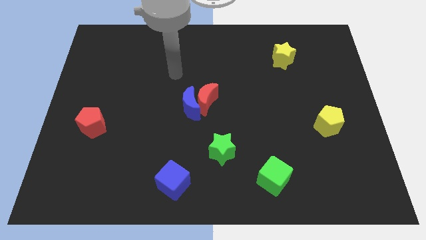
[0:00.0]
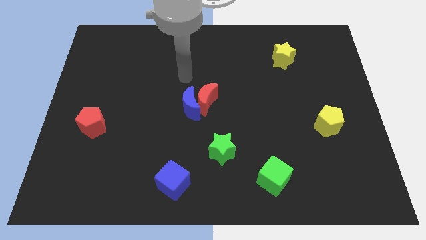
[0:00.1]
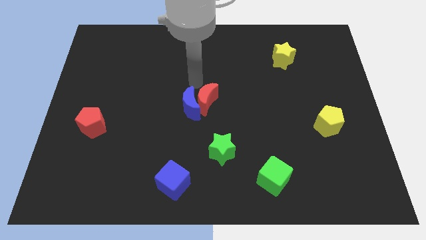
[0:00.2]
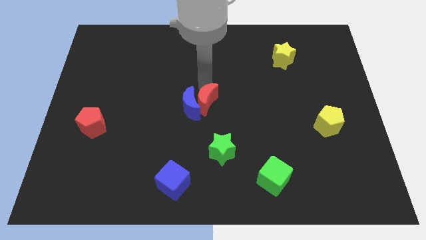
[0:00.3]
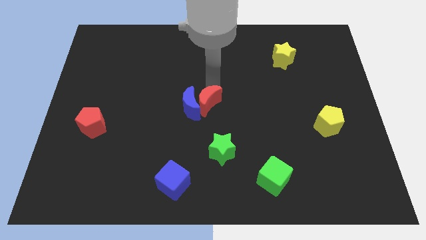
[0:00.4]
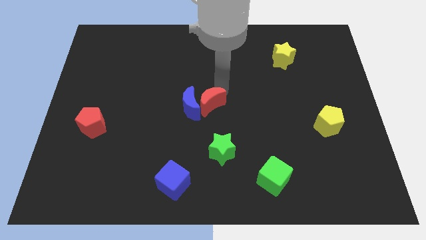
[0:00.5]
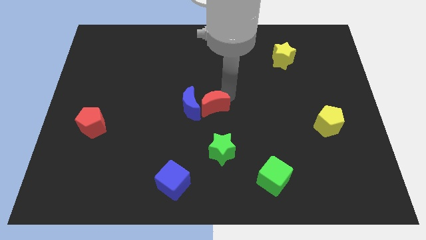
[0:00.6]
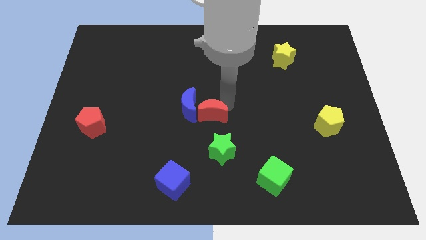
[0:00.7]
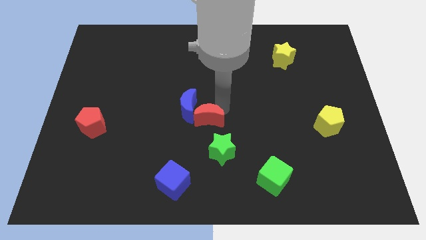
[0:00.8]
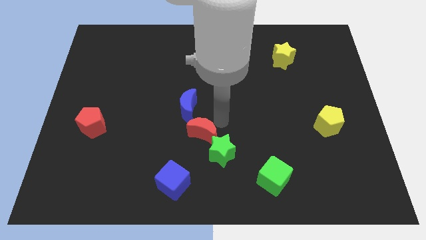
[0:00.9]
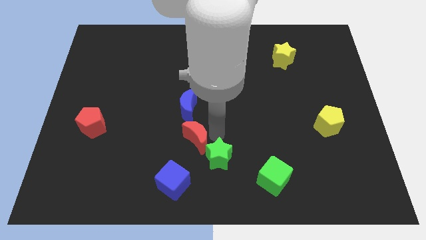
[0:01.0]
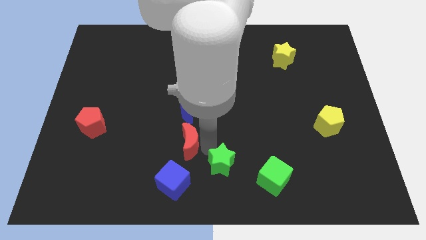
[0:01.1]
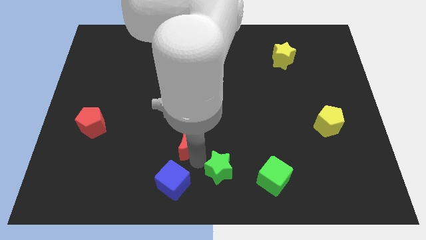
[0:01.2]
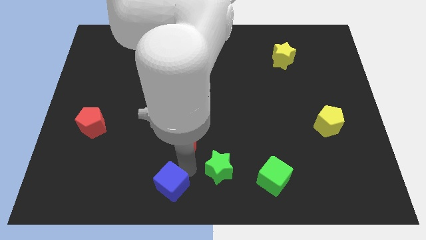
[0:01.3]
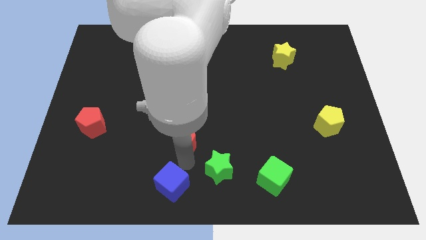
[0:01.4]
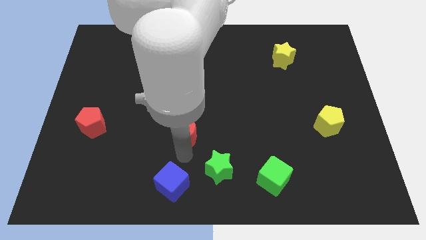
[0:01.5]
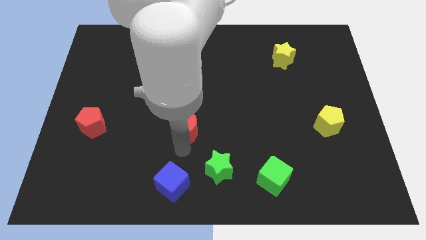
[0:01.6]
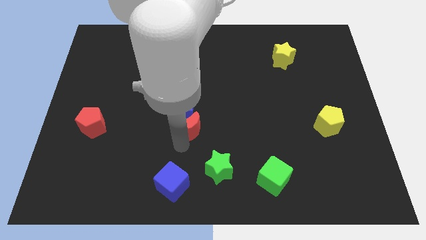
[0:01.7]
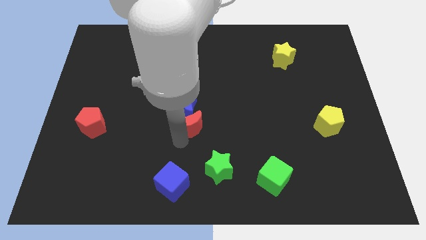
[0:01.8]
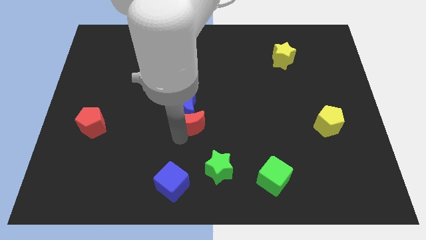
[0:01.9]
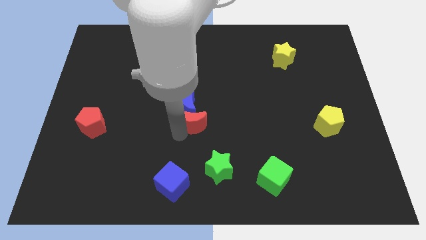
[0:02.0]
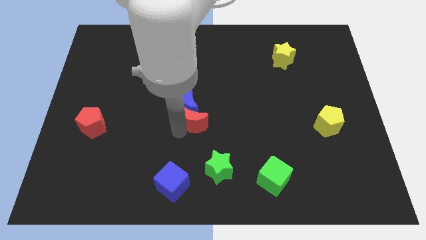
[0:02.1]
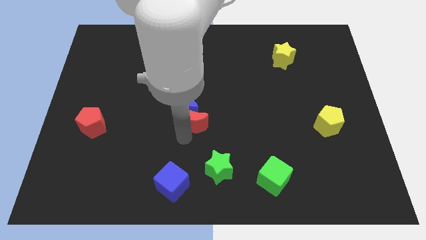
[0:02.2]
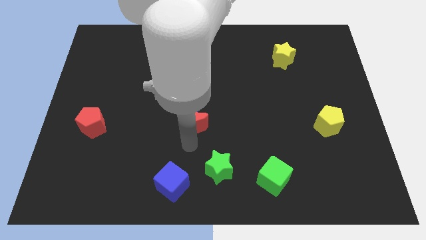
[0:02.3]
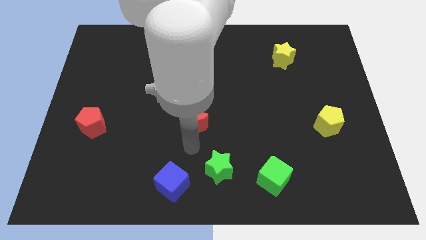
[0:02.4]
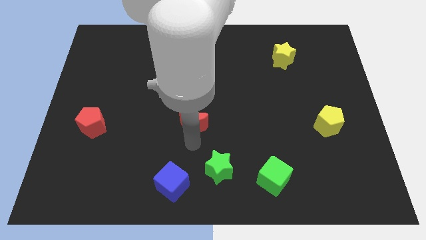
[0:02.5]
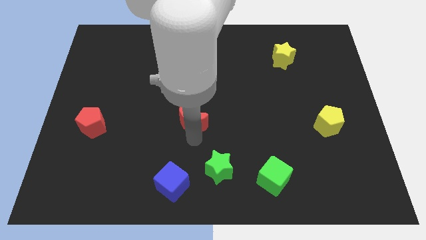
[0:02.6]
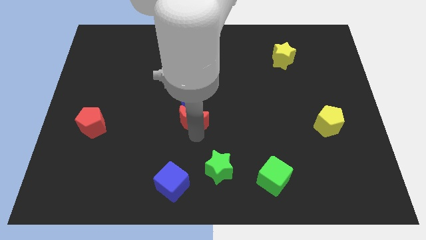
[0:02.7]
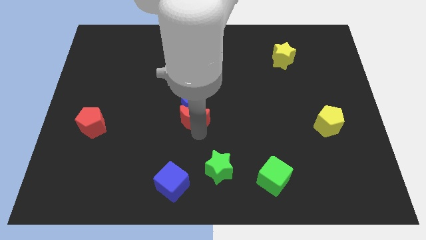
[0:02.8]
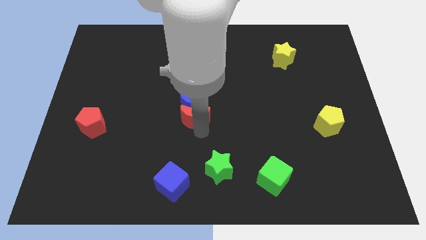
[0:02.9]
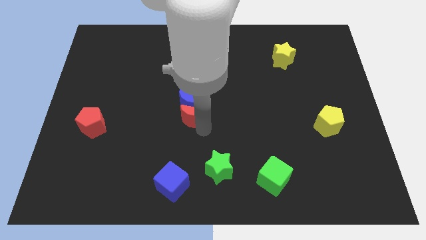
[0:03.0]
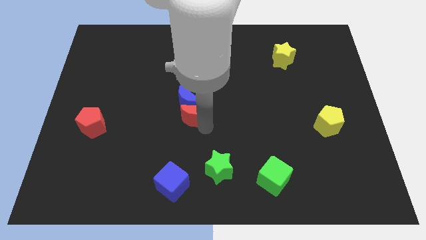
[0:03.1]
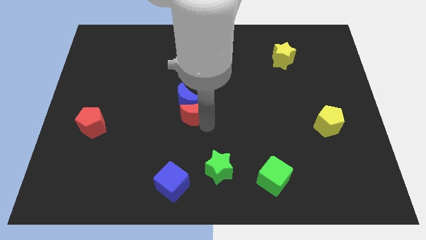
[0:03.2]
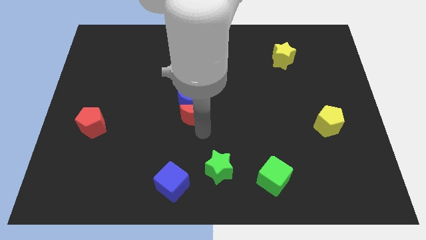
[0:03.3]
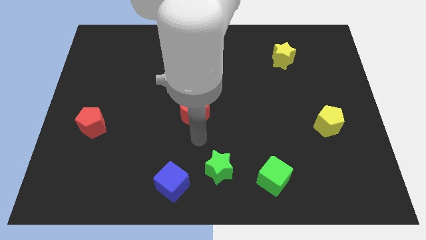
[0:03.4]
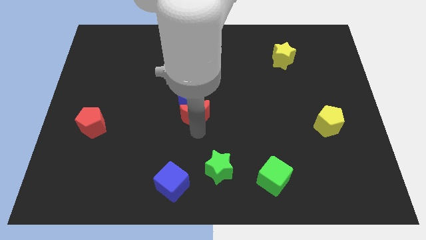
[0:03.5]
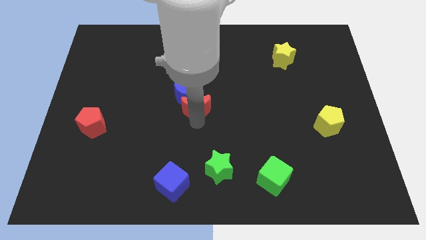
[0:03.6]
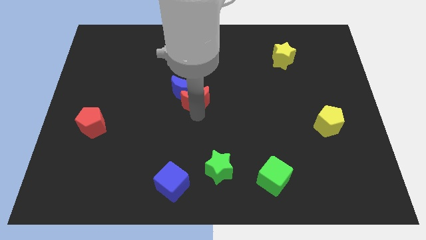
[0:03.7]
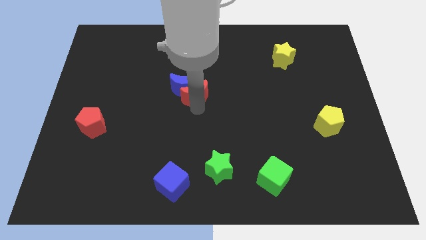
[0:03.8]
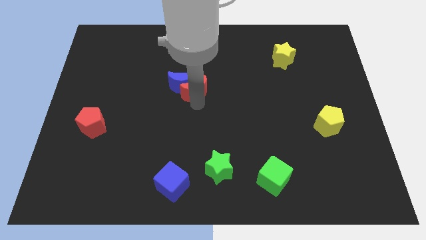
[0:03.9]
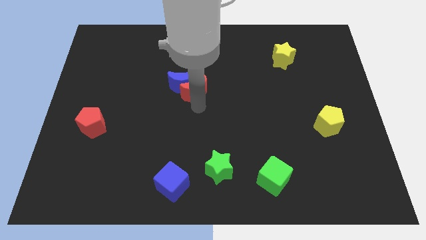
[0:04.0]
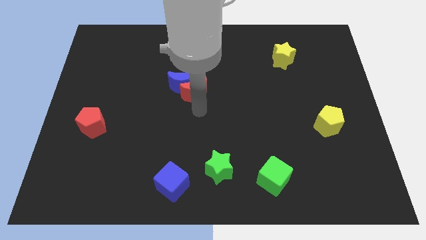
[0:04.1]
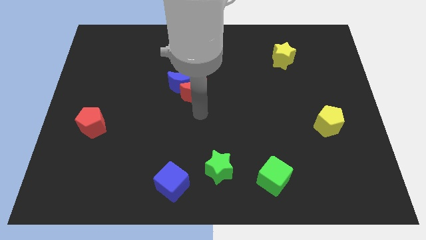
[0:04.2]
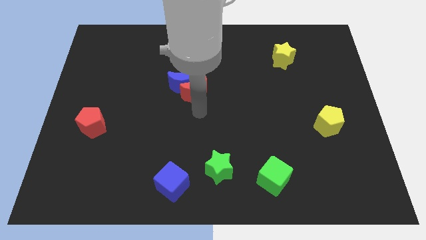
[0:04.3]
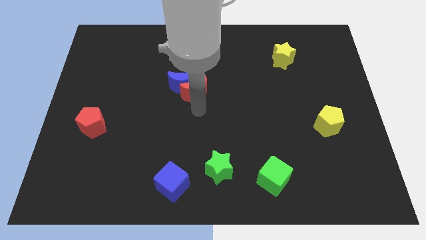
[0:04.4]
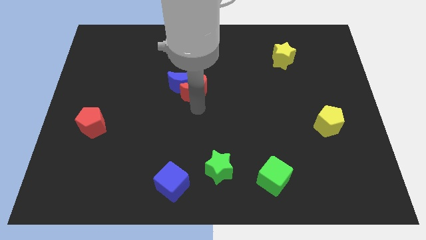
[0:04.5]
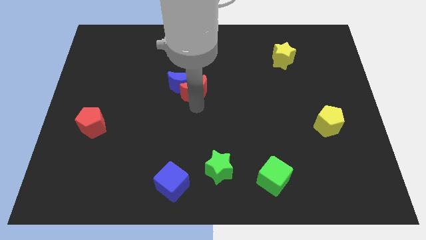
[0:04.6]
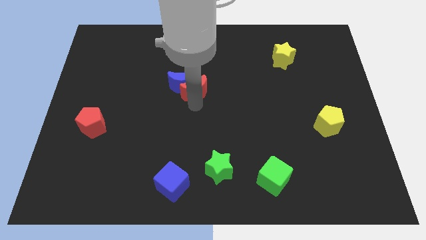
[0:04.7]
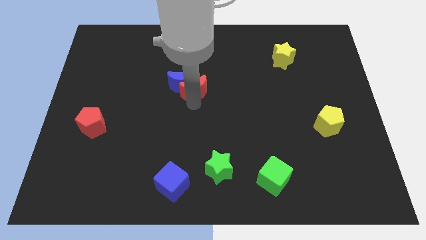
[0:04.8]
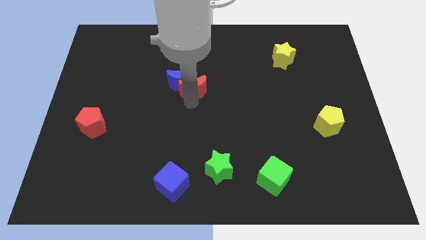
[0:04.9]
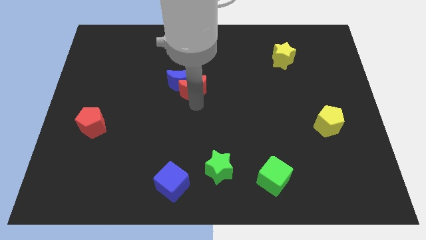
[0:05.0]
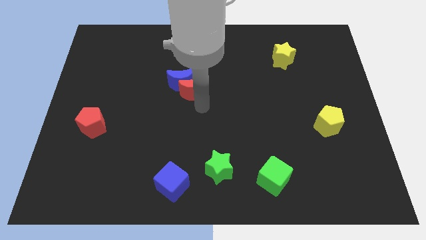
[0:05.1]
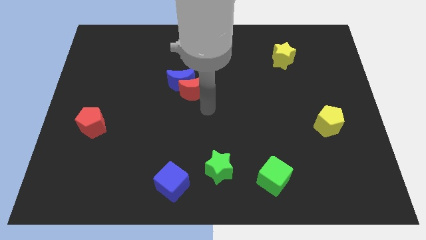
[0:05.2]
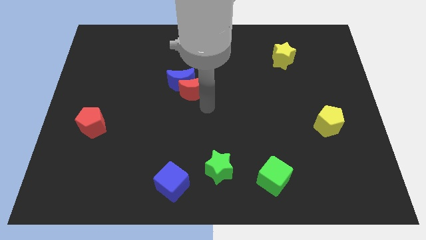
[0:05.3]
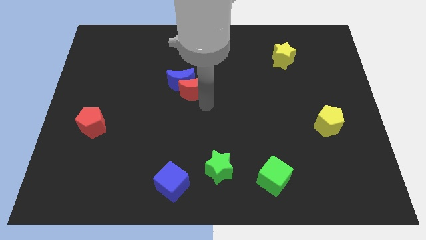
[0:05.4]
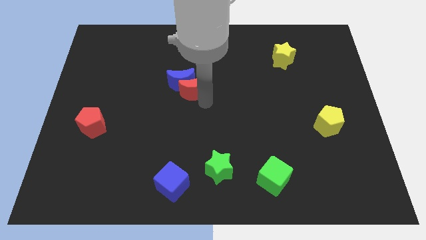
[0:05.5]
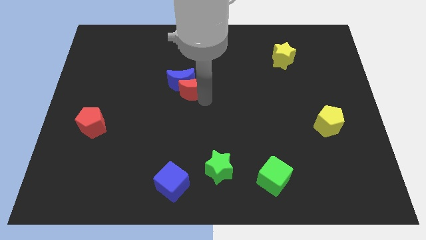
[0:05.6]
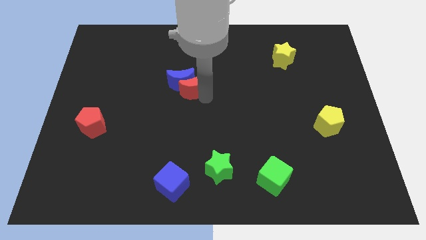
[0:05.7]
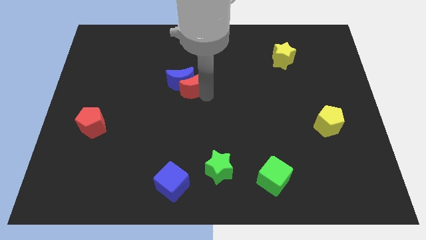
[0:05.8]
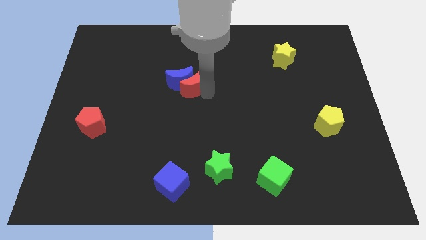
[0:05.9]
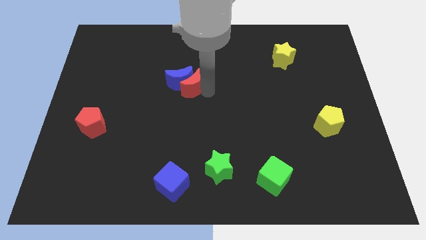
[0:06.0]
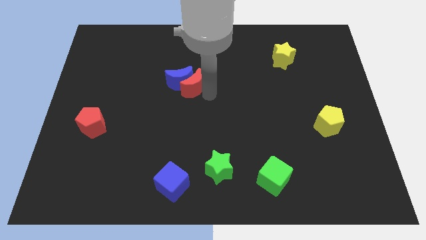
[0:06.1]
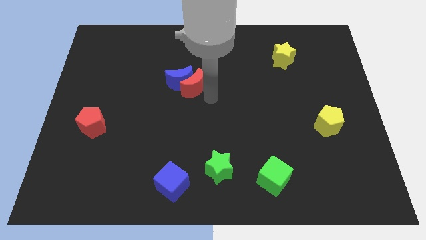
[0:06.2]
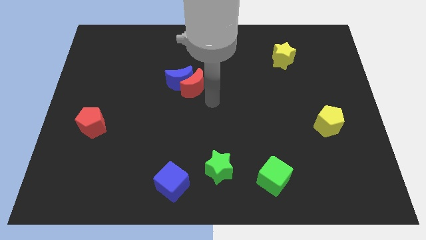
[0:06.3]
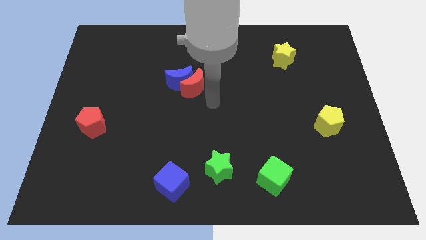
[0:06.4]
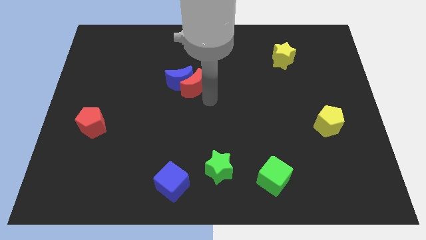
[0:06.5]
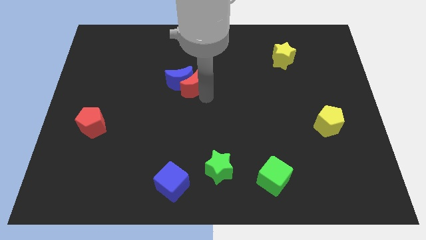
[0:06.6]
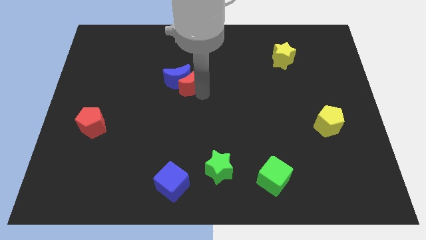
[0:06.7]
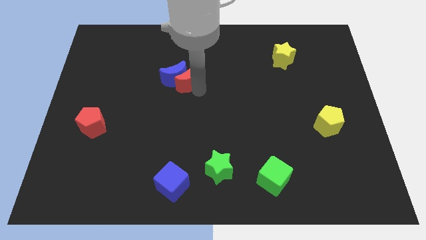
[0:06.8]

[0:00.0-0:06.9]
push the red moon a little bit upwards and then left

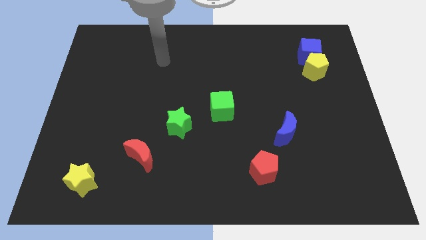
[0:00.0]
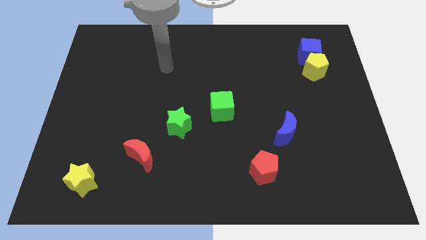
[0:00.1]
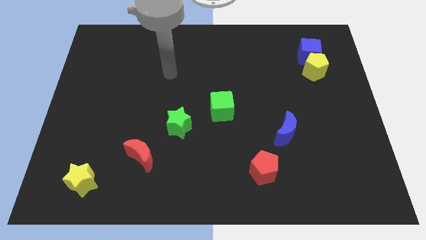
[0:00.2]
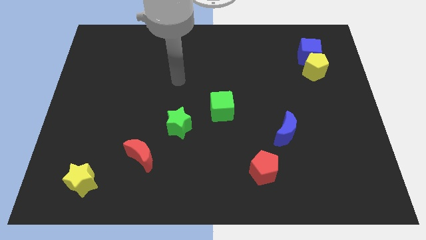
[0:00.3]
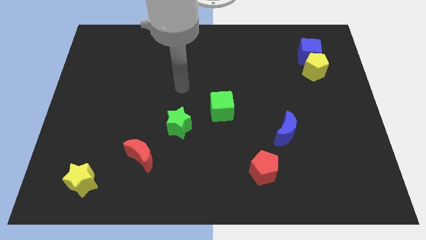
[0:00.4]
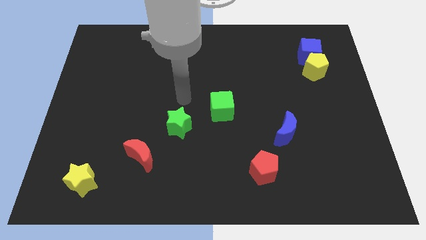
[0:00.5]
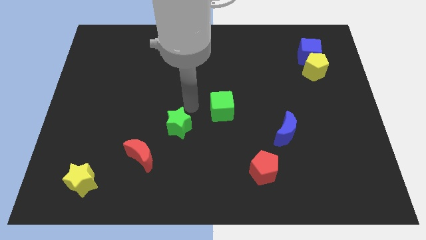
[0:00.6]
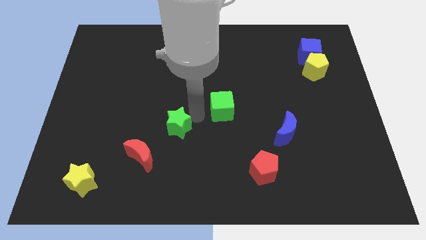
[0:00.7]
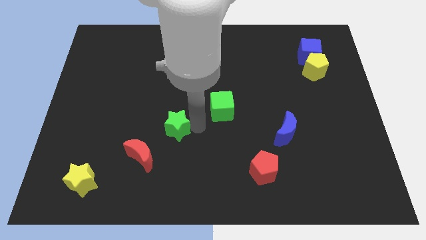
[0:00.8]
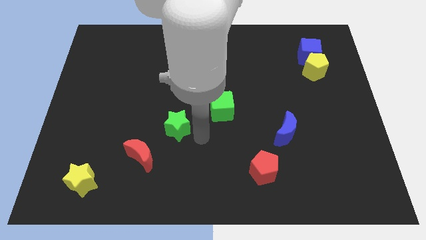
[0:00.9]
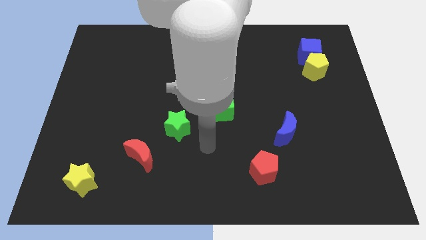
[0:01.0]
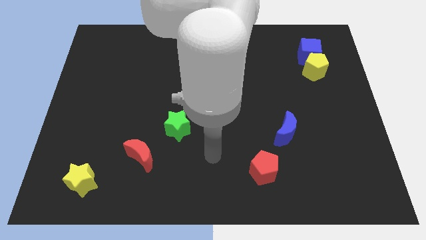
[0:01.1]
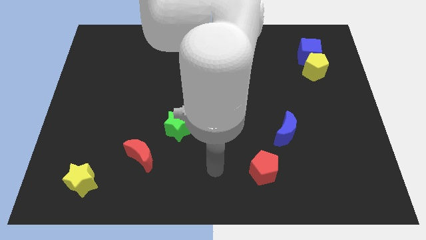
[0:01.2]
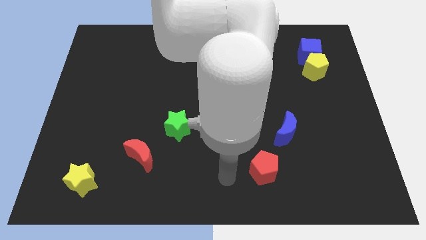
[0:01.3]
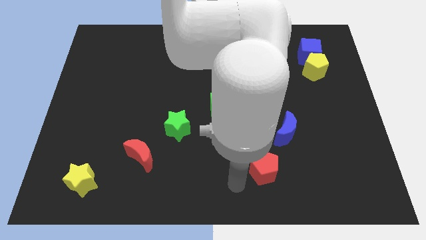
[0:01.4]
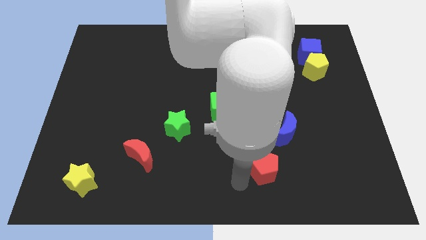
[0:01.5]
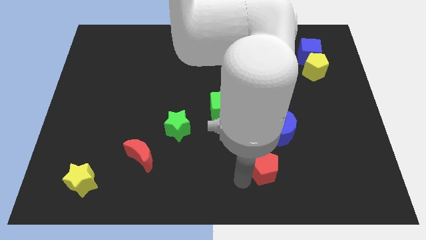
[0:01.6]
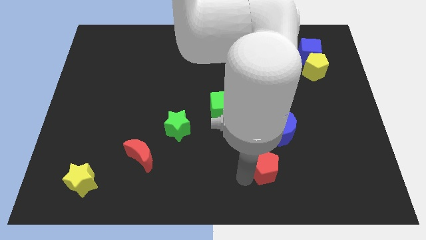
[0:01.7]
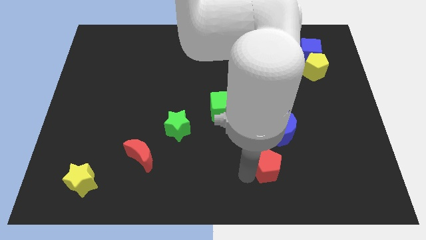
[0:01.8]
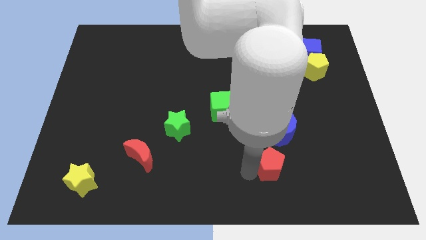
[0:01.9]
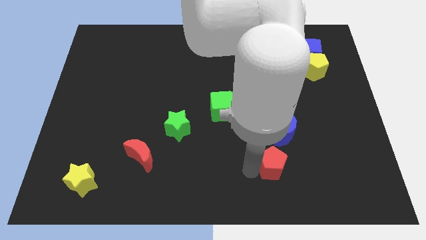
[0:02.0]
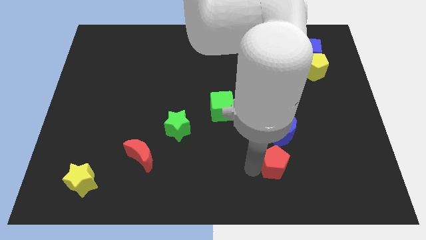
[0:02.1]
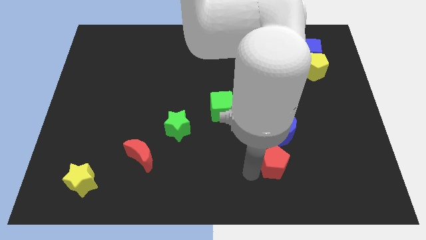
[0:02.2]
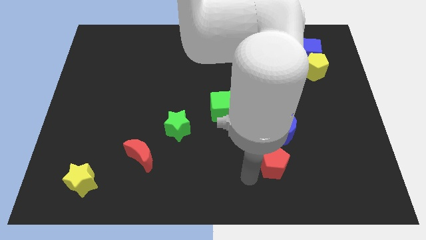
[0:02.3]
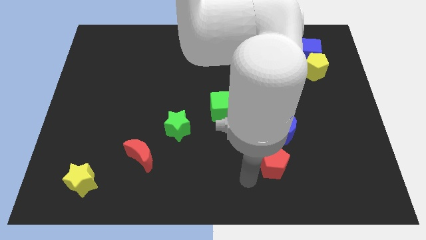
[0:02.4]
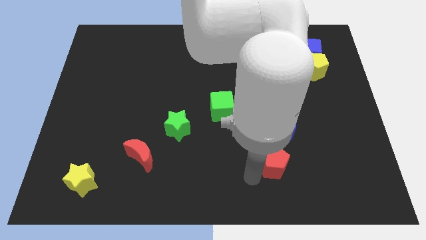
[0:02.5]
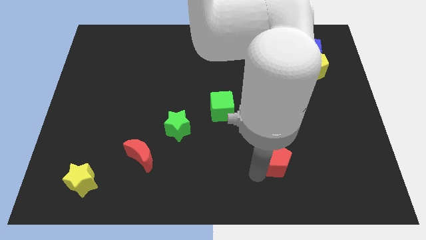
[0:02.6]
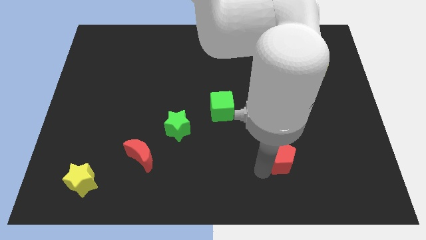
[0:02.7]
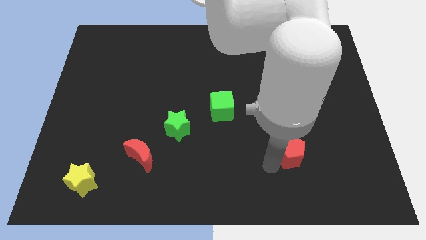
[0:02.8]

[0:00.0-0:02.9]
move the red pentagon upwards and then right a little
